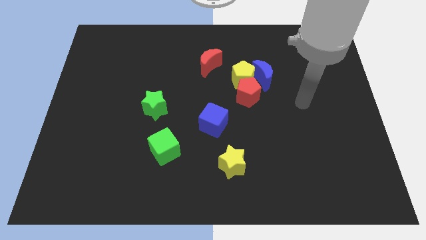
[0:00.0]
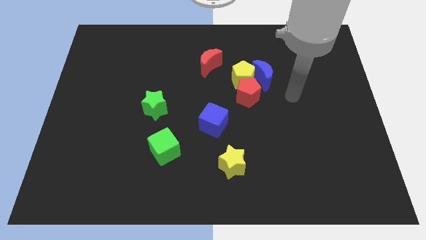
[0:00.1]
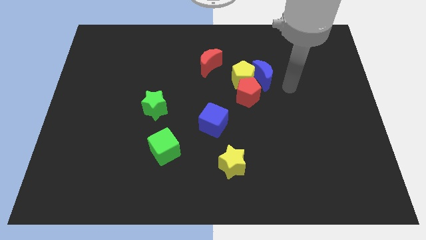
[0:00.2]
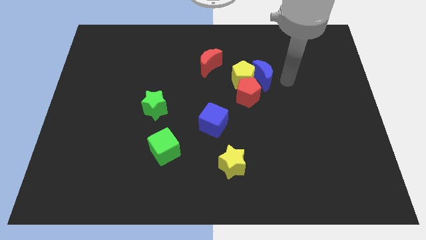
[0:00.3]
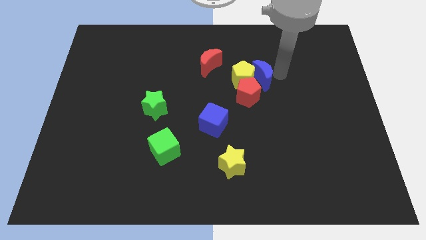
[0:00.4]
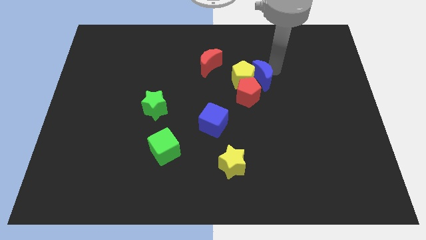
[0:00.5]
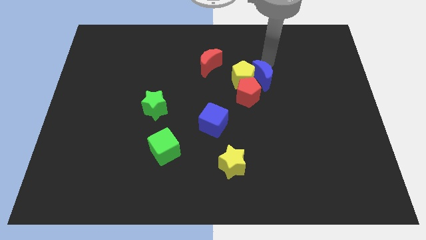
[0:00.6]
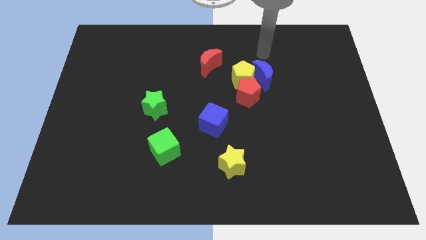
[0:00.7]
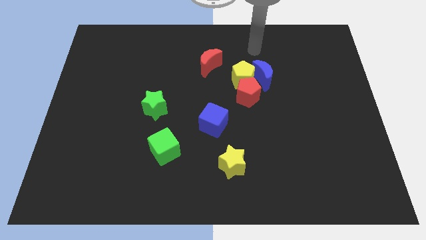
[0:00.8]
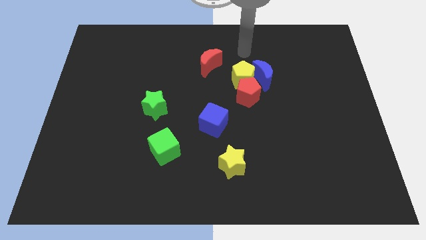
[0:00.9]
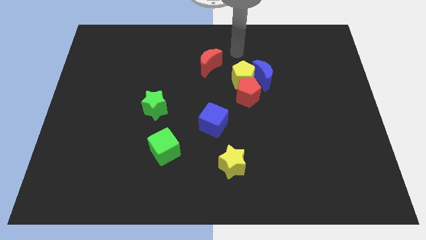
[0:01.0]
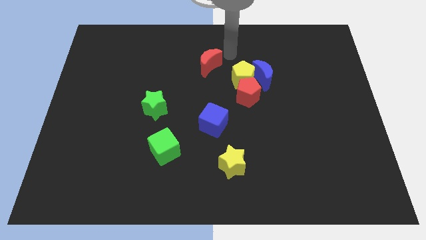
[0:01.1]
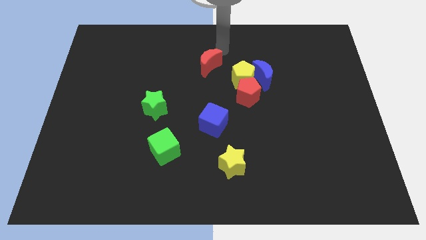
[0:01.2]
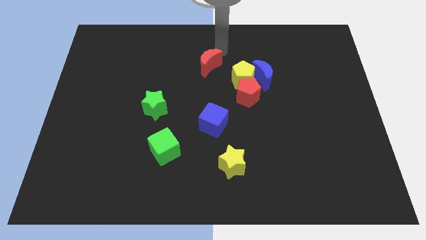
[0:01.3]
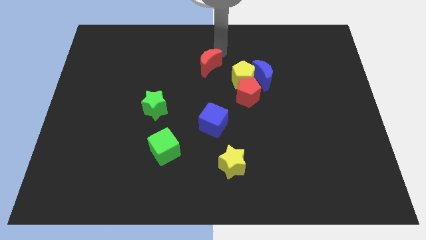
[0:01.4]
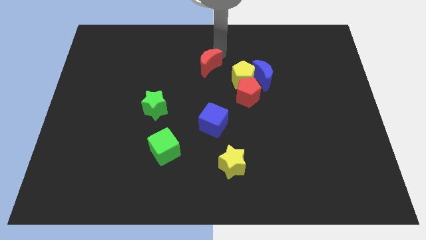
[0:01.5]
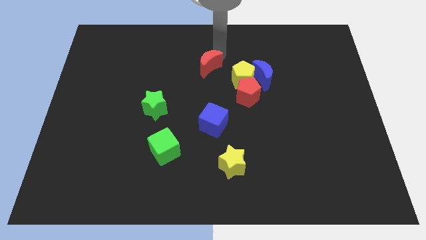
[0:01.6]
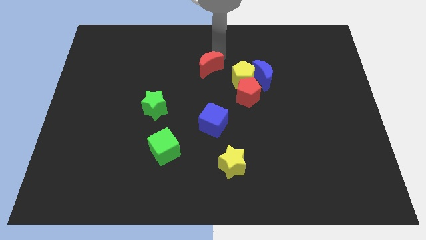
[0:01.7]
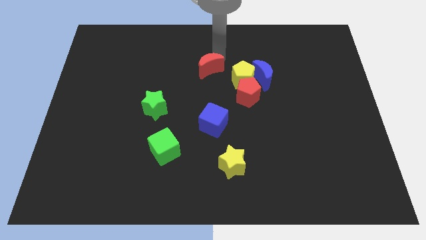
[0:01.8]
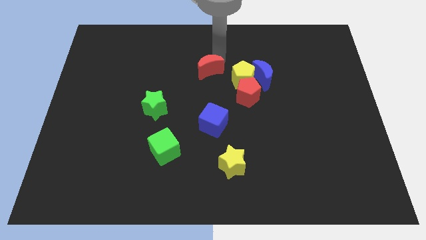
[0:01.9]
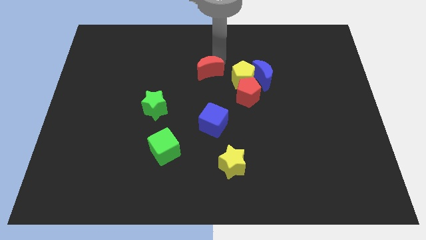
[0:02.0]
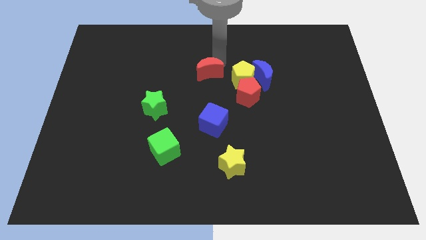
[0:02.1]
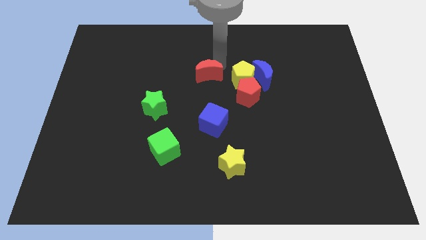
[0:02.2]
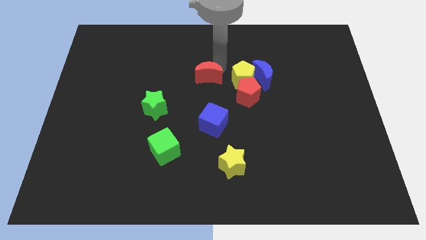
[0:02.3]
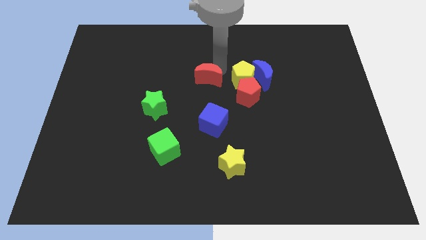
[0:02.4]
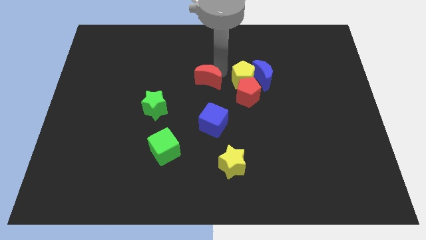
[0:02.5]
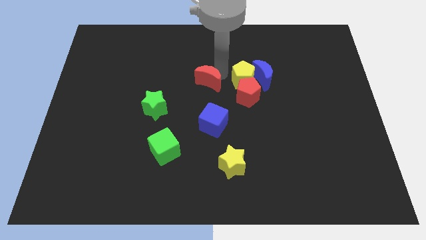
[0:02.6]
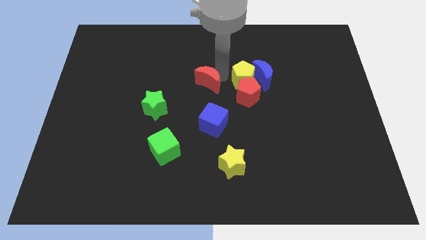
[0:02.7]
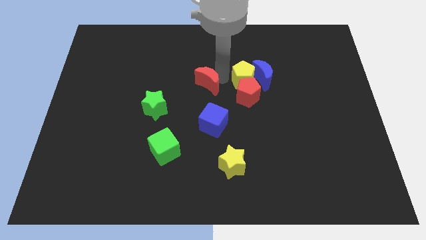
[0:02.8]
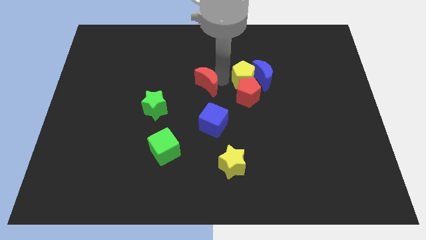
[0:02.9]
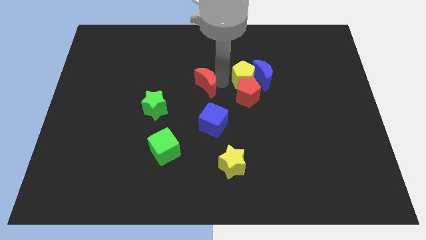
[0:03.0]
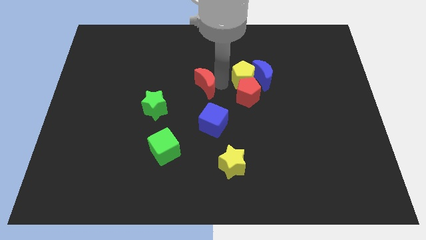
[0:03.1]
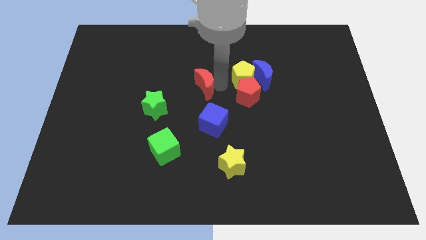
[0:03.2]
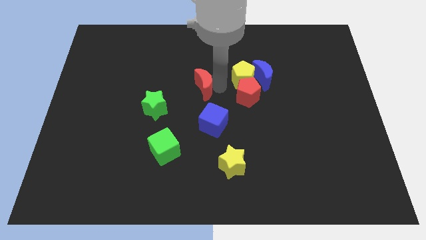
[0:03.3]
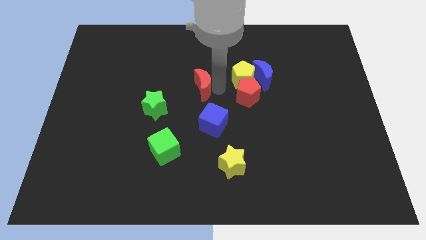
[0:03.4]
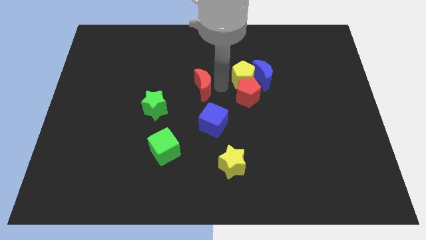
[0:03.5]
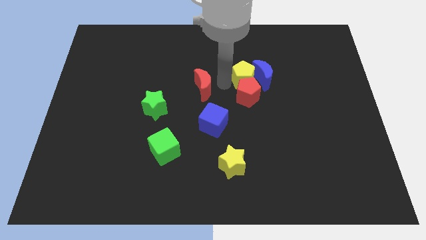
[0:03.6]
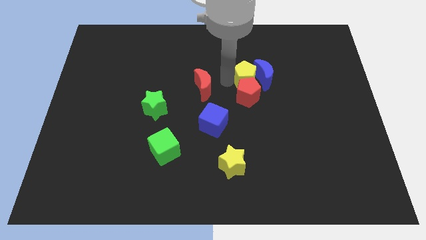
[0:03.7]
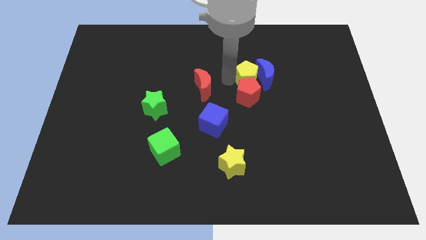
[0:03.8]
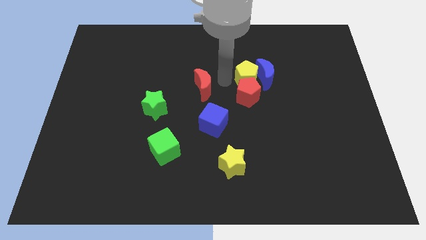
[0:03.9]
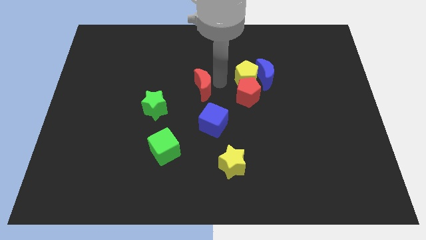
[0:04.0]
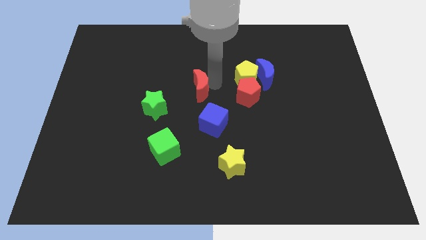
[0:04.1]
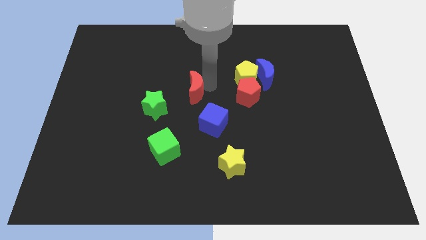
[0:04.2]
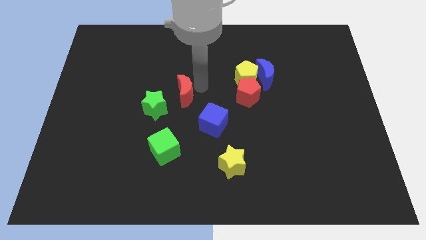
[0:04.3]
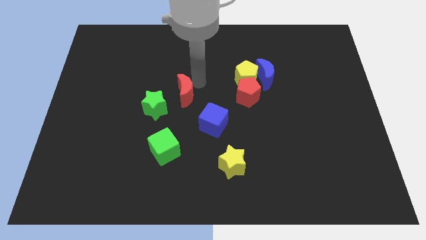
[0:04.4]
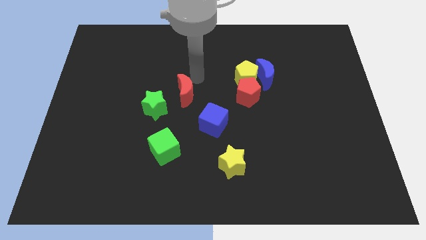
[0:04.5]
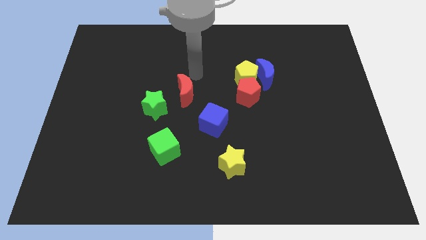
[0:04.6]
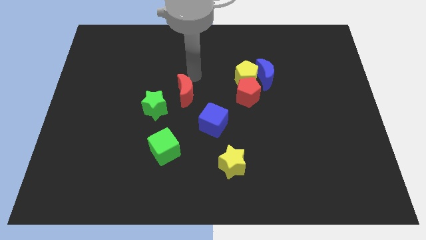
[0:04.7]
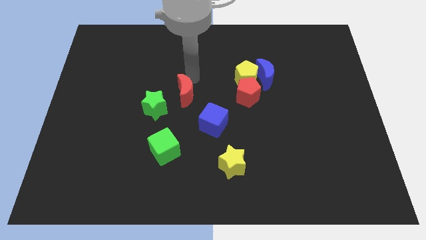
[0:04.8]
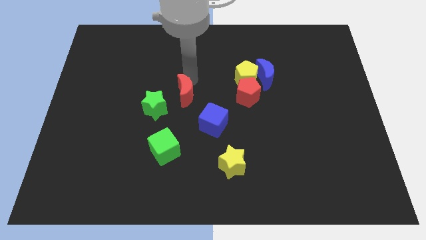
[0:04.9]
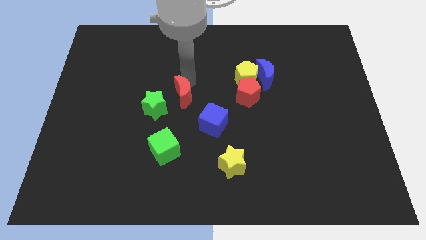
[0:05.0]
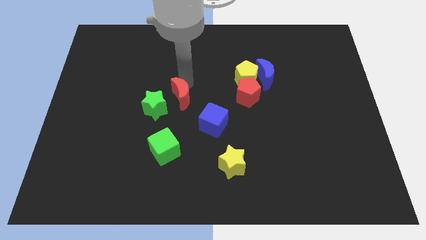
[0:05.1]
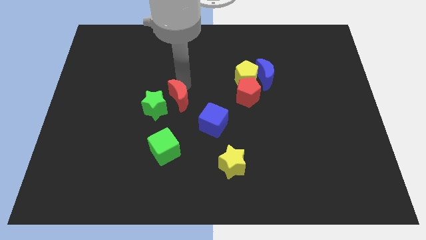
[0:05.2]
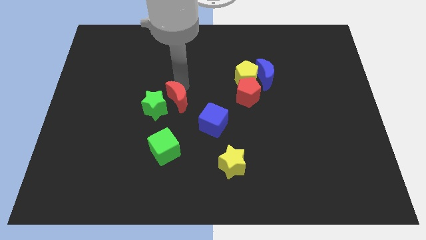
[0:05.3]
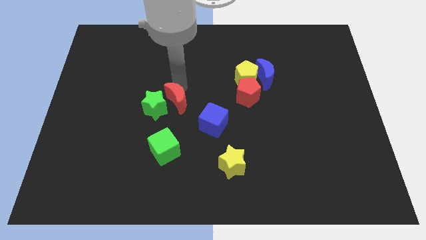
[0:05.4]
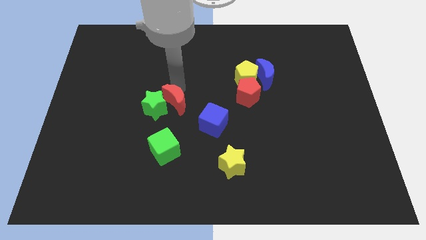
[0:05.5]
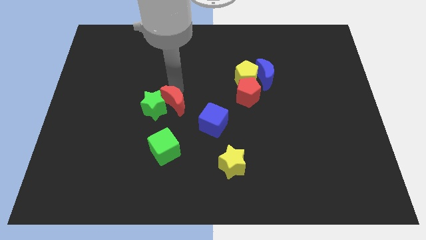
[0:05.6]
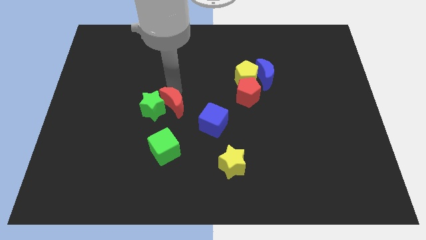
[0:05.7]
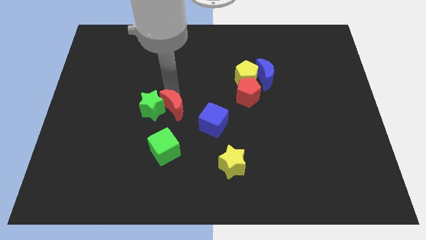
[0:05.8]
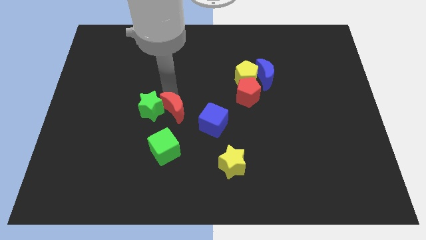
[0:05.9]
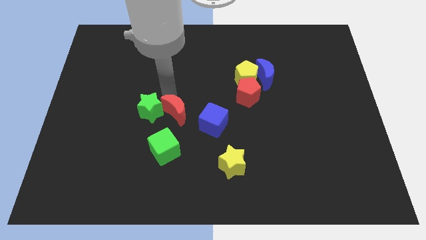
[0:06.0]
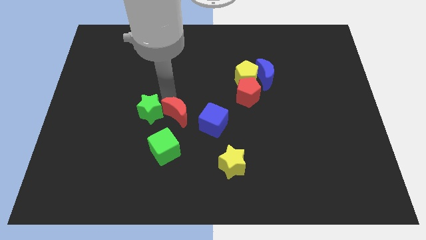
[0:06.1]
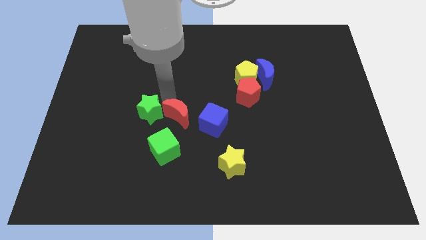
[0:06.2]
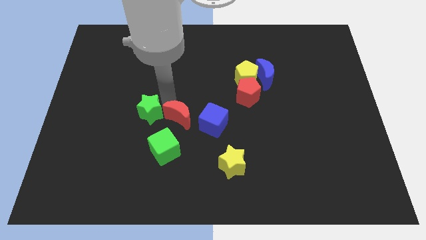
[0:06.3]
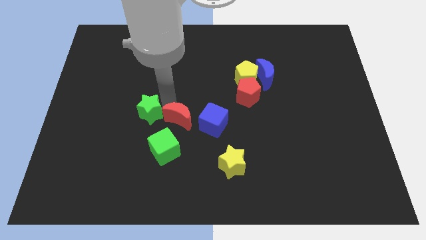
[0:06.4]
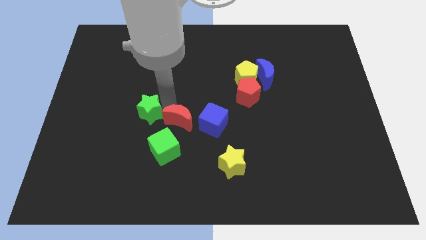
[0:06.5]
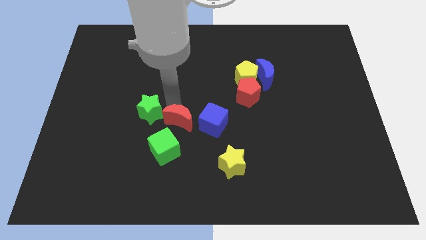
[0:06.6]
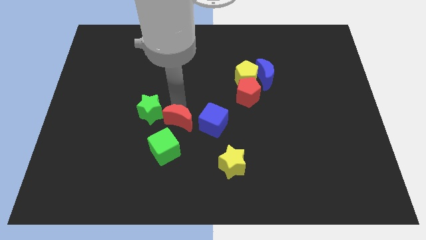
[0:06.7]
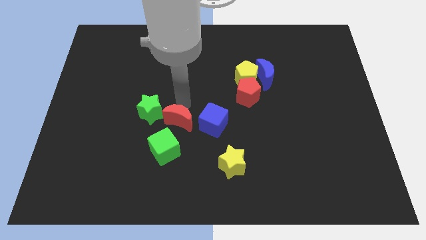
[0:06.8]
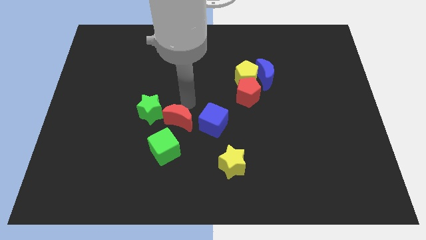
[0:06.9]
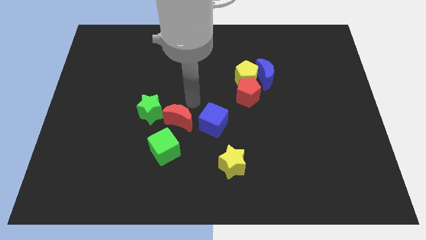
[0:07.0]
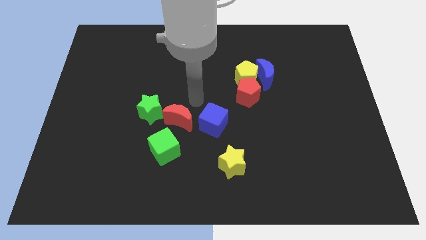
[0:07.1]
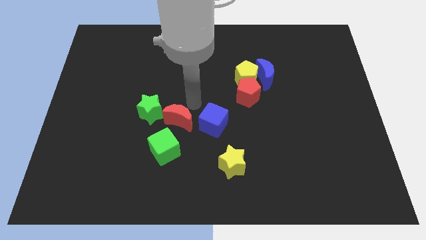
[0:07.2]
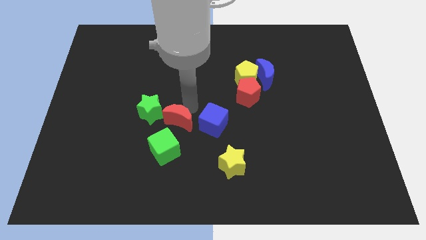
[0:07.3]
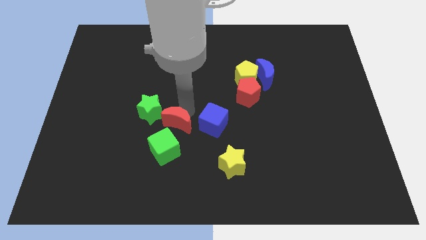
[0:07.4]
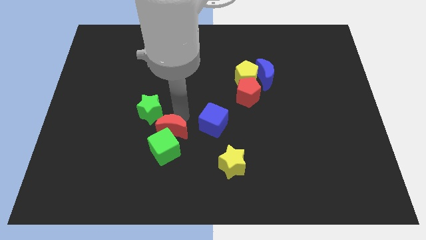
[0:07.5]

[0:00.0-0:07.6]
push the red moon next to the green cube

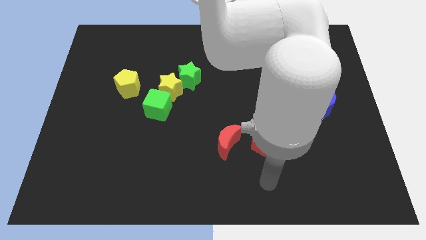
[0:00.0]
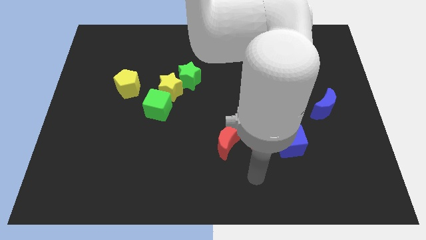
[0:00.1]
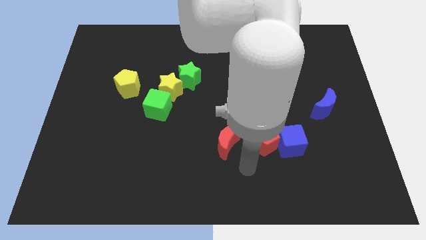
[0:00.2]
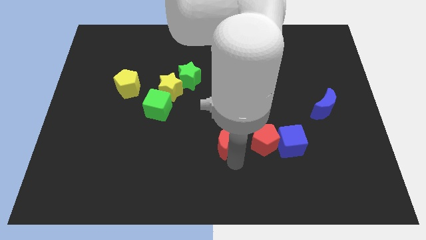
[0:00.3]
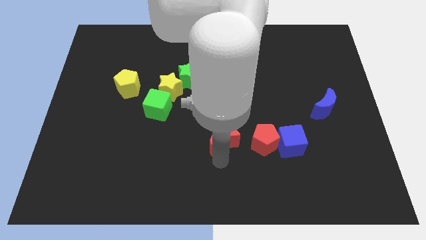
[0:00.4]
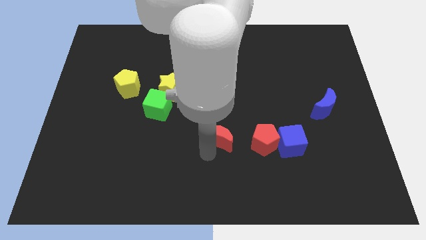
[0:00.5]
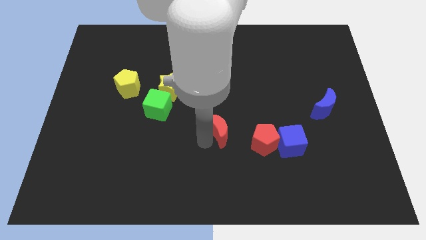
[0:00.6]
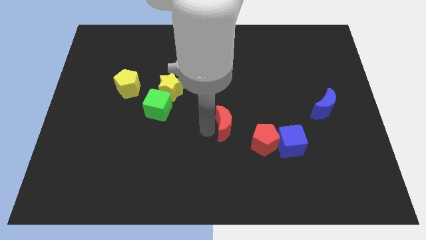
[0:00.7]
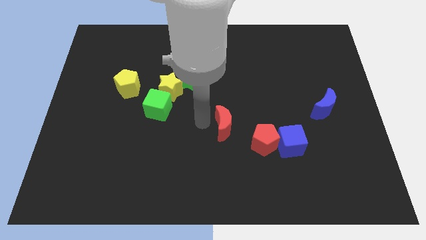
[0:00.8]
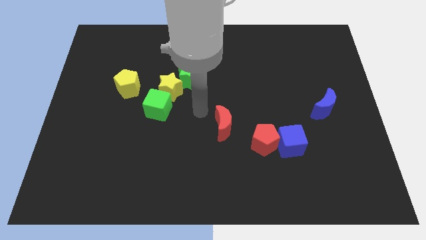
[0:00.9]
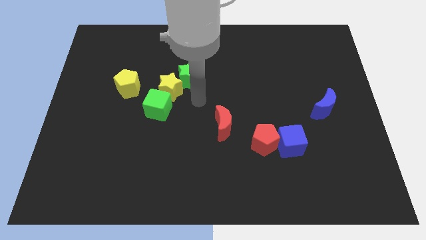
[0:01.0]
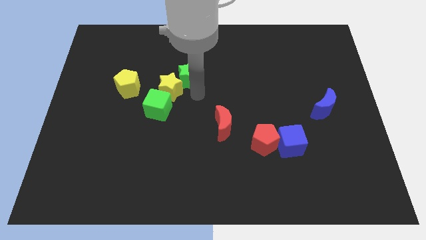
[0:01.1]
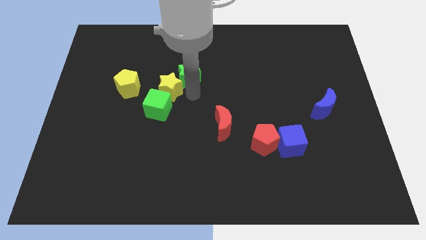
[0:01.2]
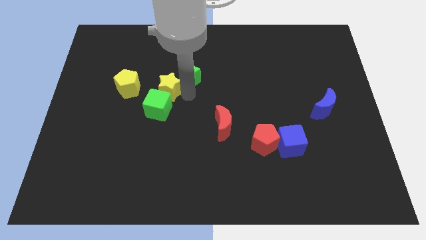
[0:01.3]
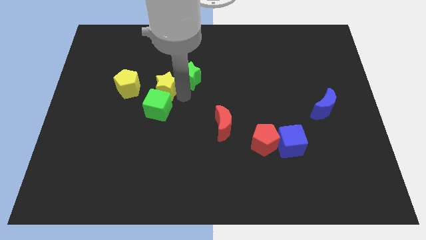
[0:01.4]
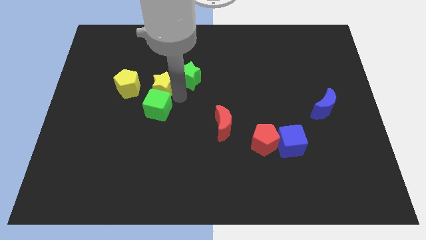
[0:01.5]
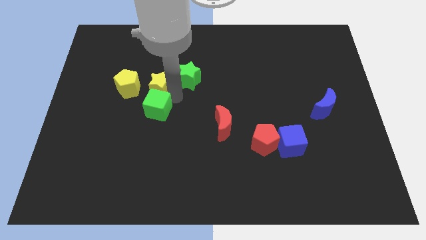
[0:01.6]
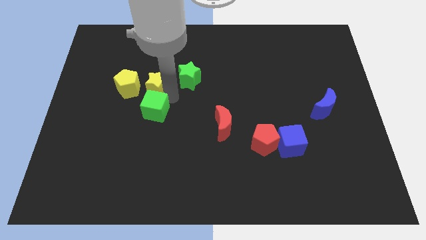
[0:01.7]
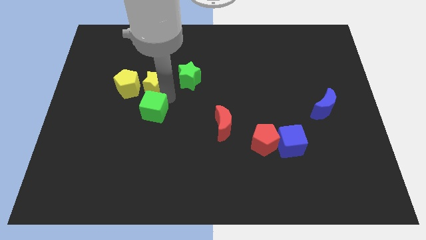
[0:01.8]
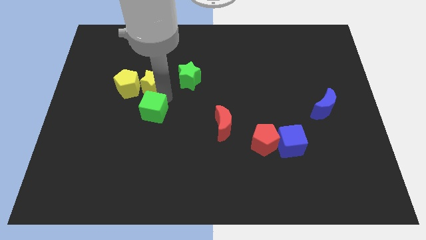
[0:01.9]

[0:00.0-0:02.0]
slide the yellow star next to the yellow pentagon
